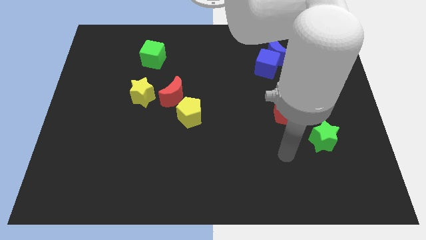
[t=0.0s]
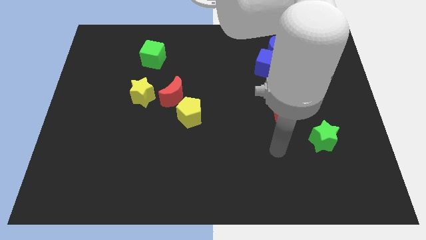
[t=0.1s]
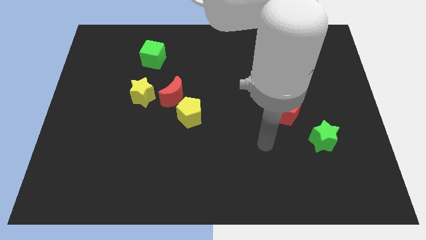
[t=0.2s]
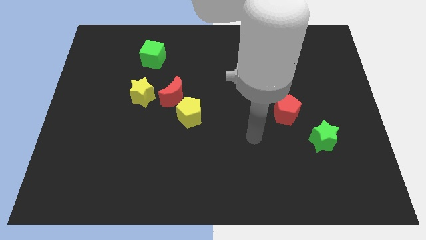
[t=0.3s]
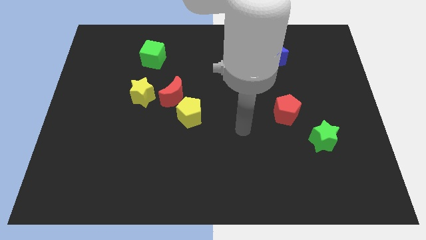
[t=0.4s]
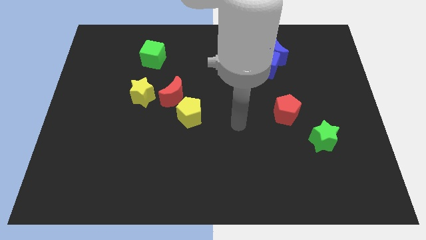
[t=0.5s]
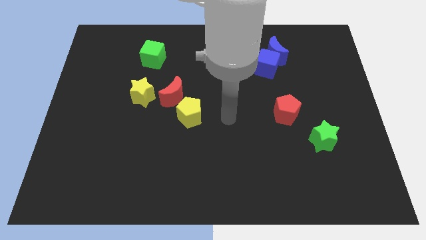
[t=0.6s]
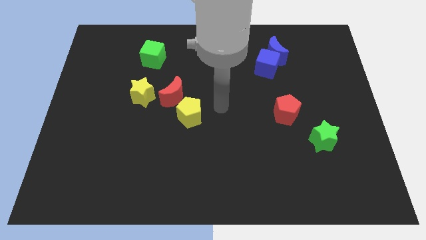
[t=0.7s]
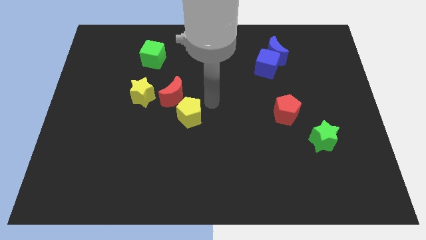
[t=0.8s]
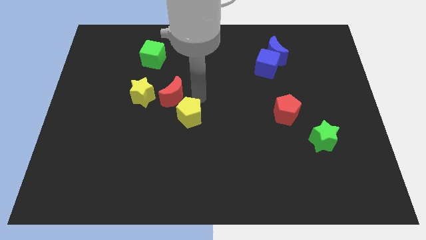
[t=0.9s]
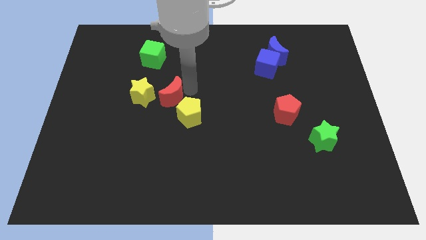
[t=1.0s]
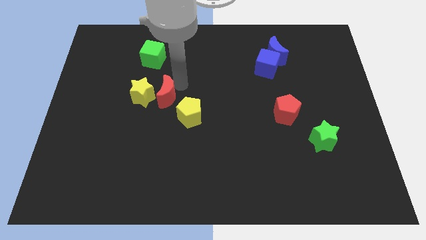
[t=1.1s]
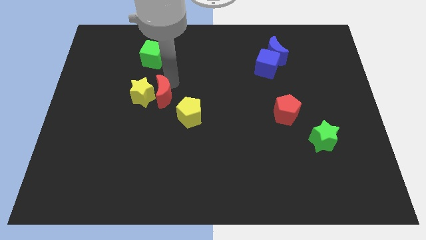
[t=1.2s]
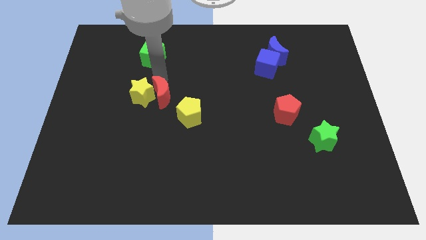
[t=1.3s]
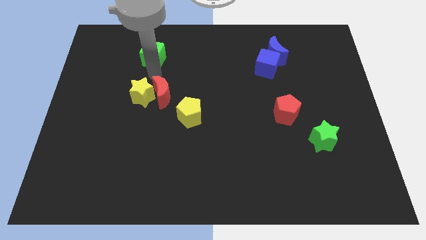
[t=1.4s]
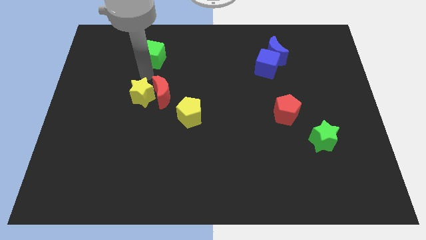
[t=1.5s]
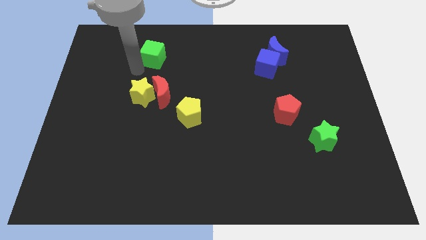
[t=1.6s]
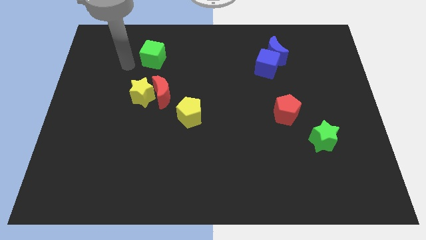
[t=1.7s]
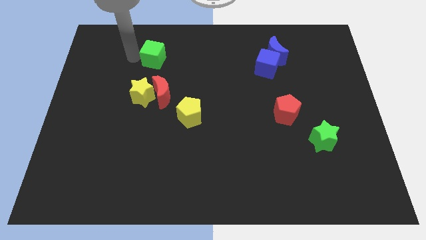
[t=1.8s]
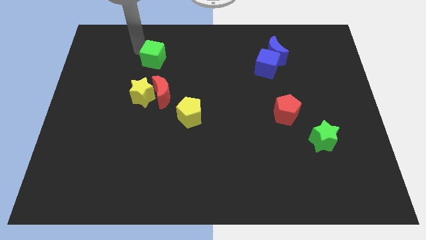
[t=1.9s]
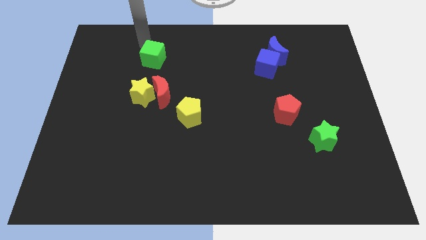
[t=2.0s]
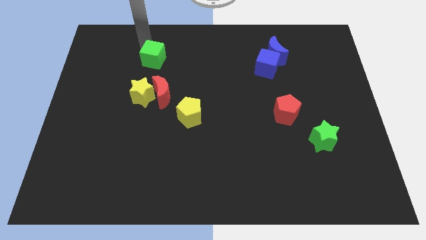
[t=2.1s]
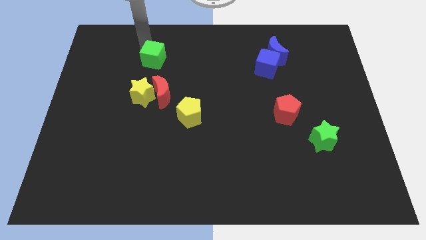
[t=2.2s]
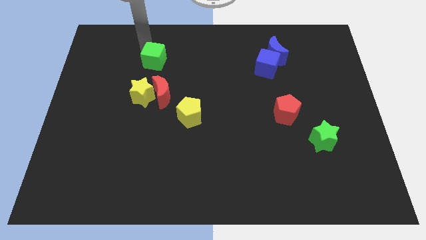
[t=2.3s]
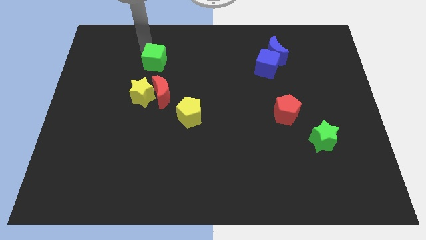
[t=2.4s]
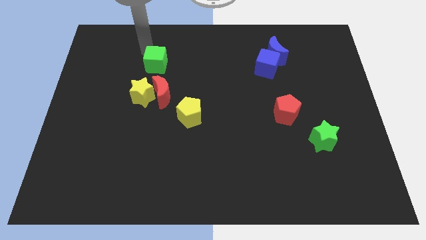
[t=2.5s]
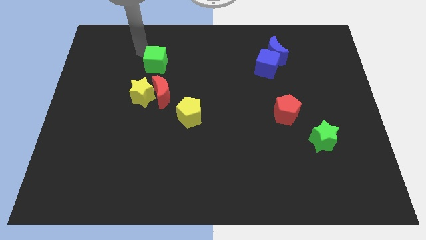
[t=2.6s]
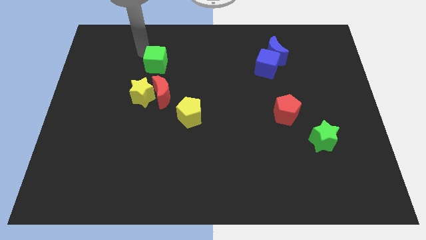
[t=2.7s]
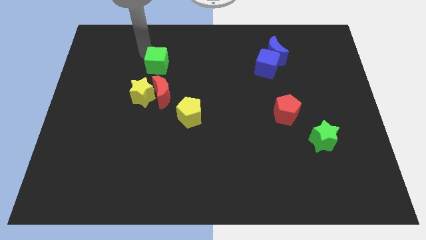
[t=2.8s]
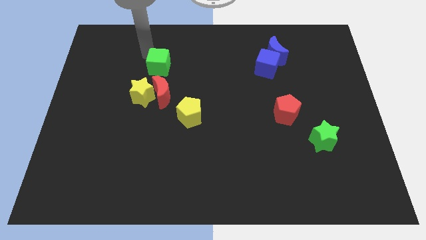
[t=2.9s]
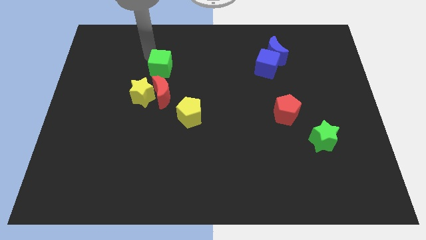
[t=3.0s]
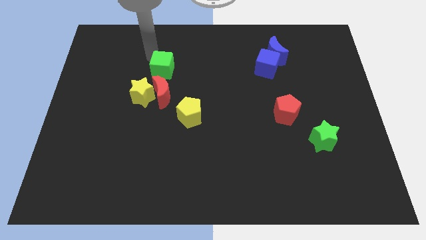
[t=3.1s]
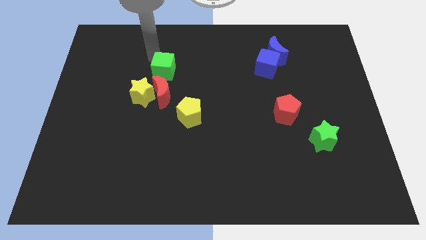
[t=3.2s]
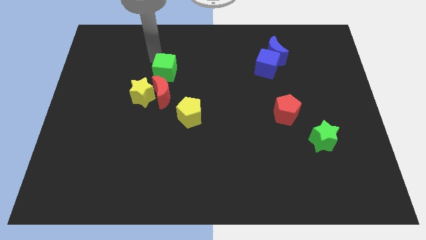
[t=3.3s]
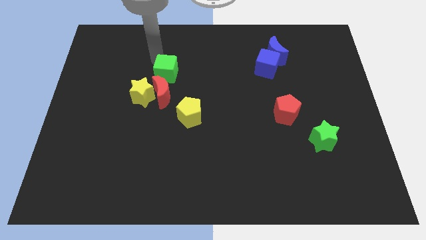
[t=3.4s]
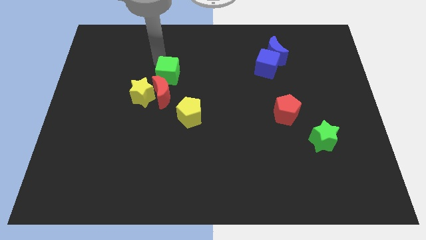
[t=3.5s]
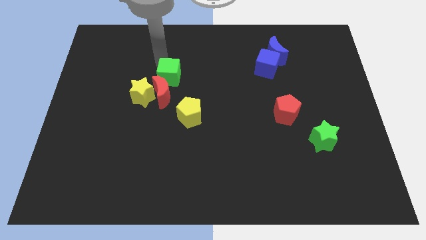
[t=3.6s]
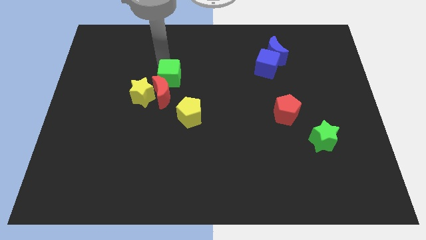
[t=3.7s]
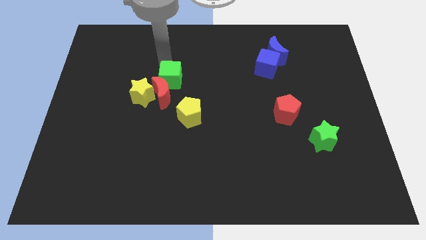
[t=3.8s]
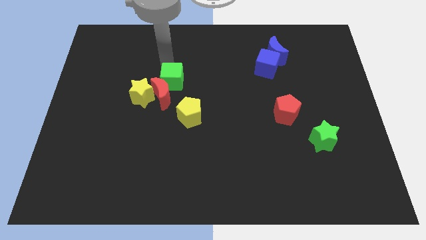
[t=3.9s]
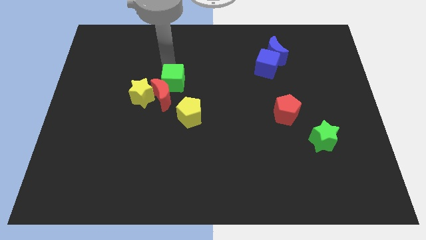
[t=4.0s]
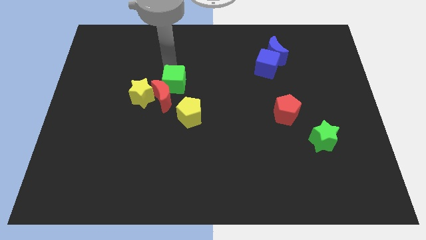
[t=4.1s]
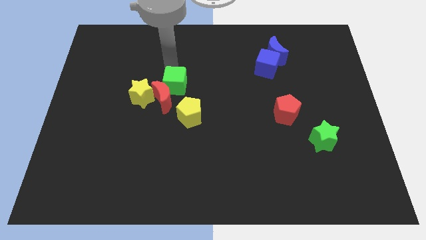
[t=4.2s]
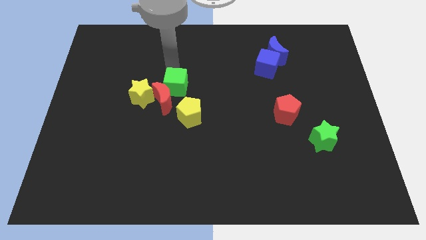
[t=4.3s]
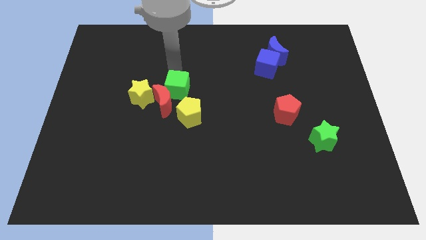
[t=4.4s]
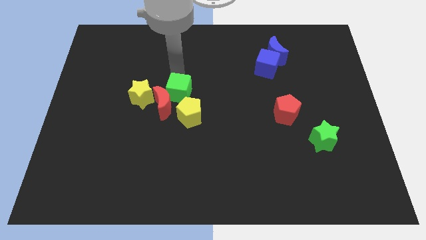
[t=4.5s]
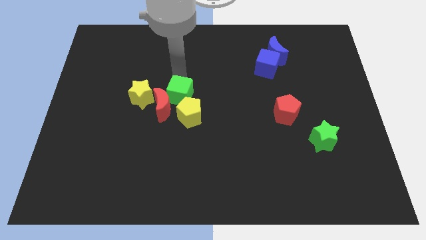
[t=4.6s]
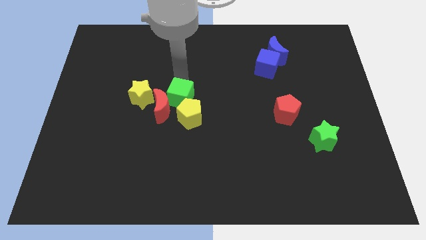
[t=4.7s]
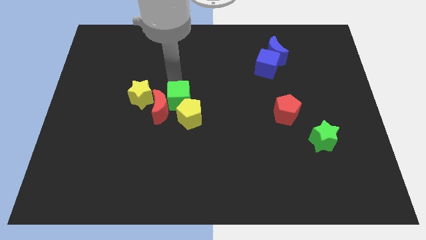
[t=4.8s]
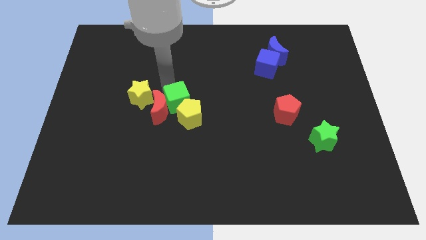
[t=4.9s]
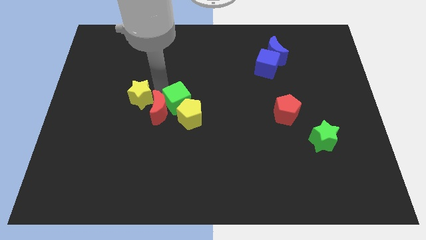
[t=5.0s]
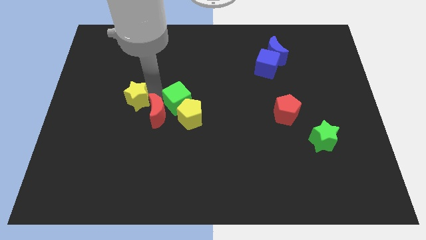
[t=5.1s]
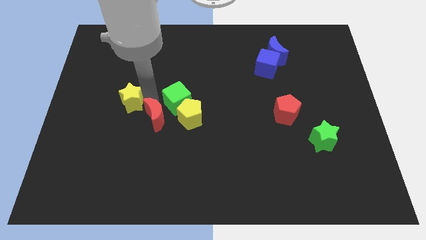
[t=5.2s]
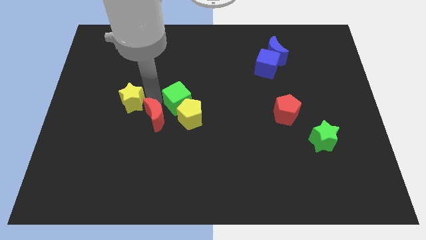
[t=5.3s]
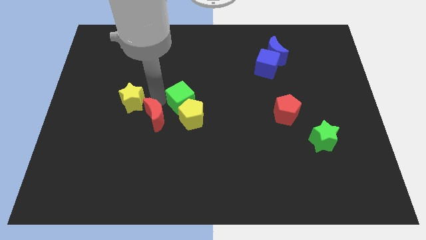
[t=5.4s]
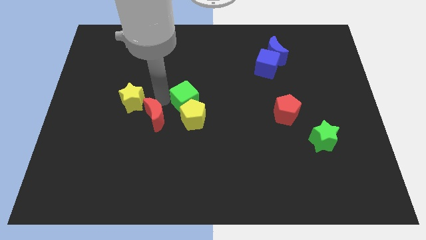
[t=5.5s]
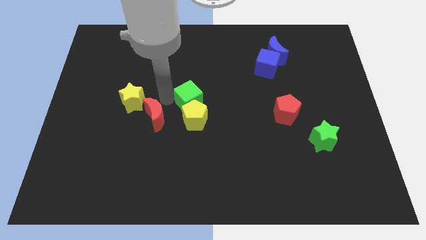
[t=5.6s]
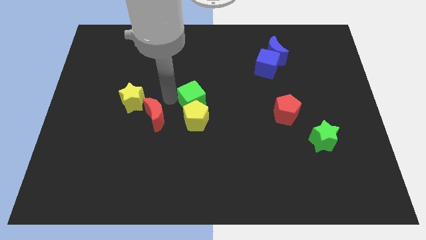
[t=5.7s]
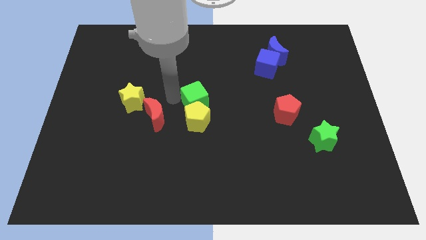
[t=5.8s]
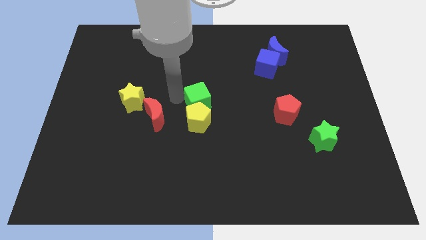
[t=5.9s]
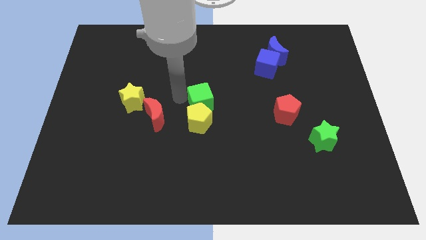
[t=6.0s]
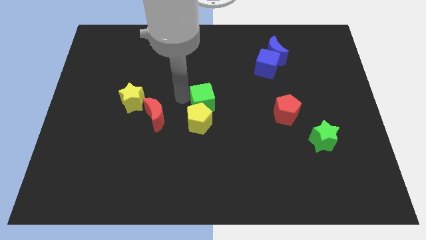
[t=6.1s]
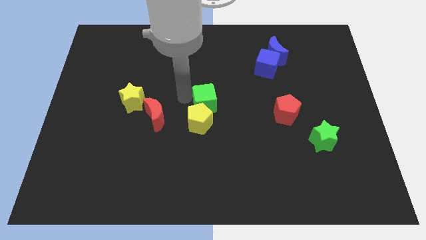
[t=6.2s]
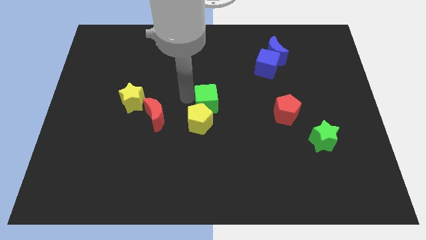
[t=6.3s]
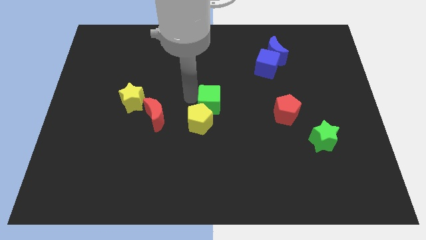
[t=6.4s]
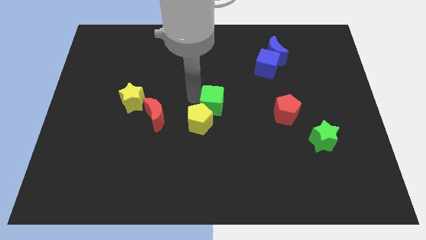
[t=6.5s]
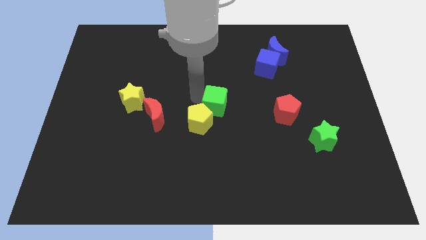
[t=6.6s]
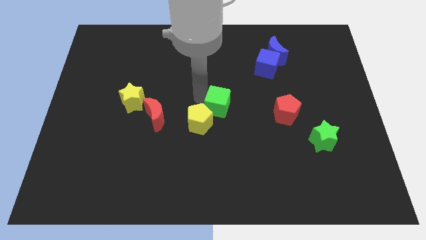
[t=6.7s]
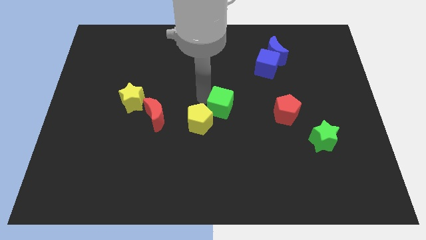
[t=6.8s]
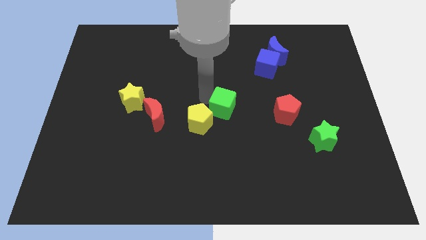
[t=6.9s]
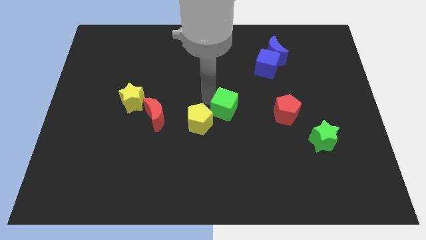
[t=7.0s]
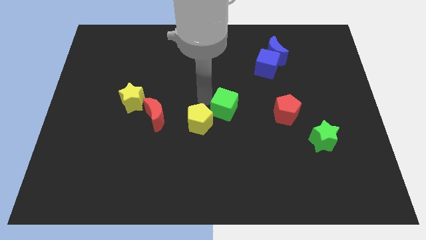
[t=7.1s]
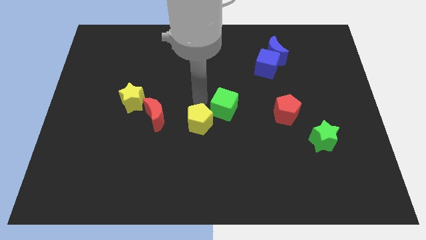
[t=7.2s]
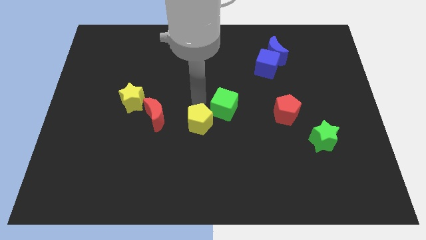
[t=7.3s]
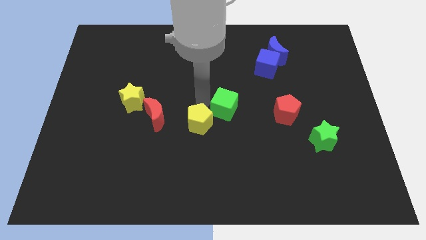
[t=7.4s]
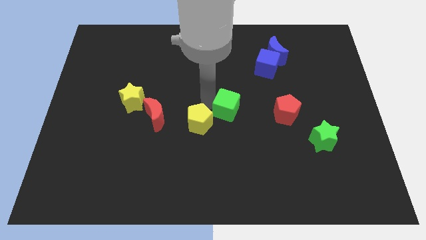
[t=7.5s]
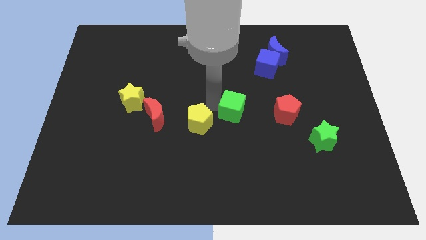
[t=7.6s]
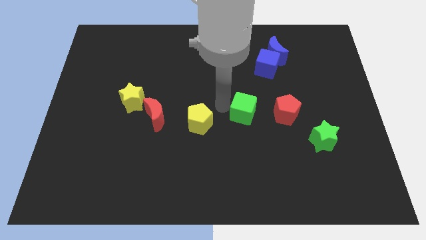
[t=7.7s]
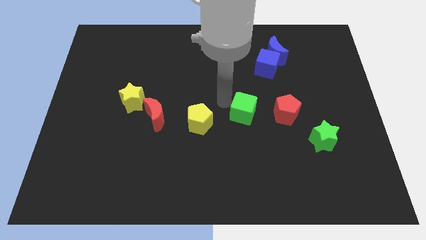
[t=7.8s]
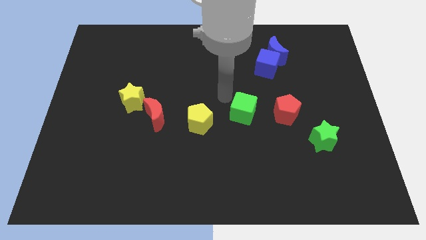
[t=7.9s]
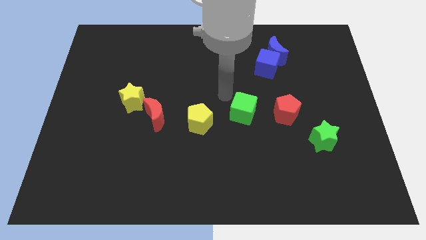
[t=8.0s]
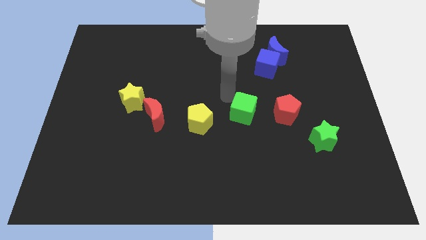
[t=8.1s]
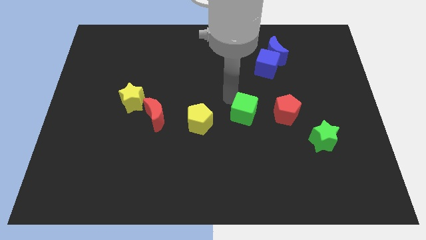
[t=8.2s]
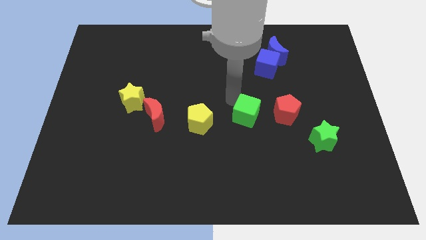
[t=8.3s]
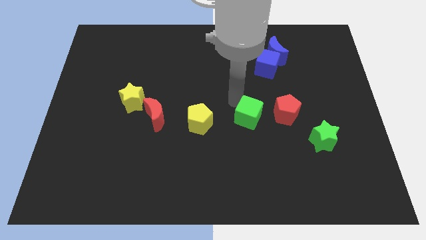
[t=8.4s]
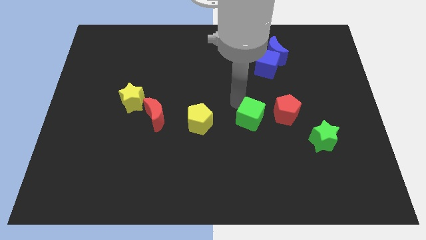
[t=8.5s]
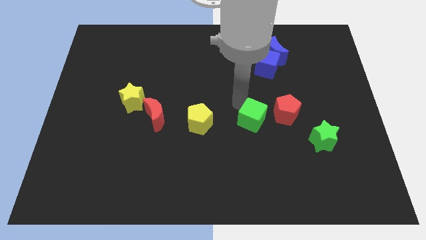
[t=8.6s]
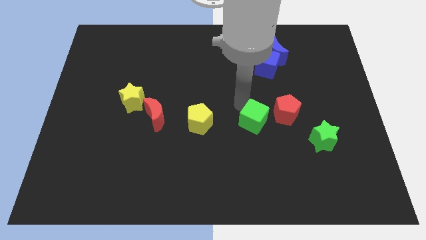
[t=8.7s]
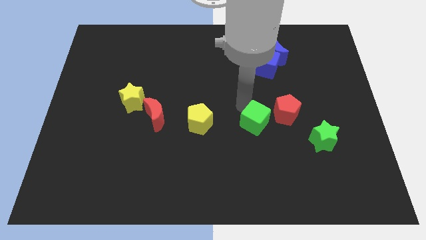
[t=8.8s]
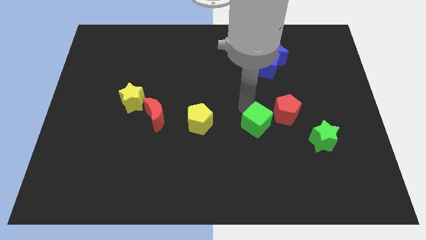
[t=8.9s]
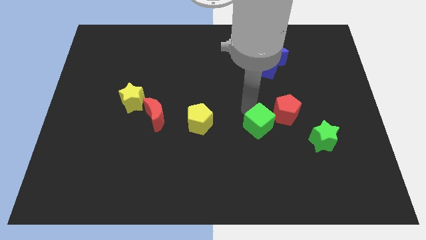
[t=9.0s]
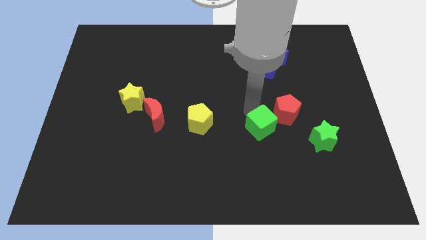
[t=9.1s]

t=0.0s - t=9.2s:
slide the green cube just left of the green star
